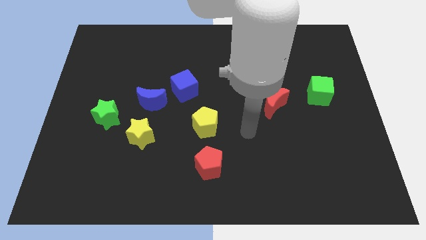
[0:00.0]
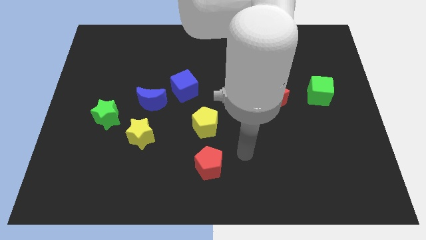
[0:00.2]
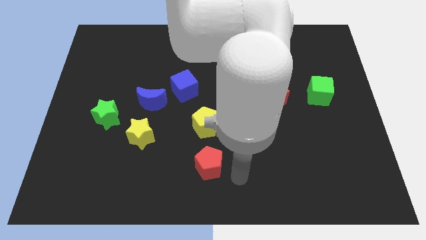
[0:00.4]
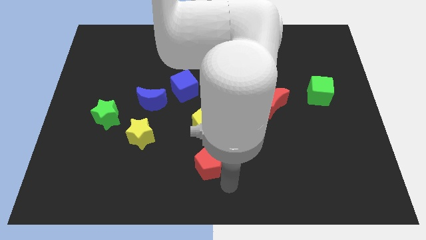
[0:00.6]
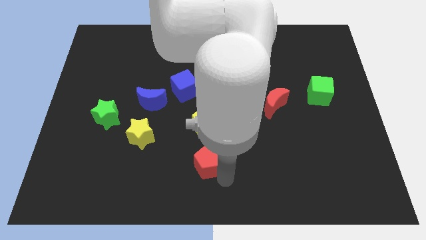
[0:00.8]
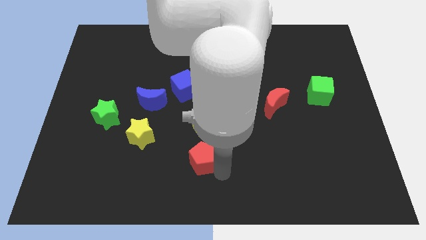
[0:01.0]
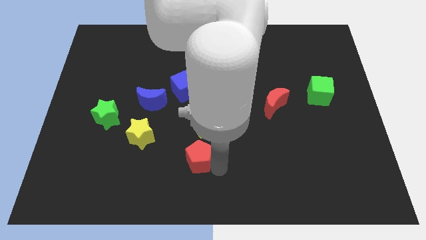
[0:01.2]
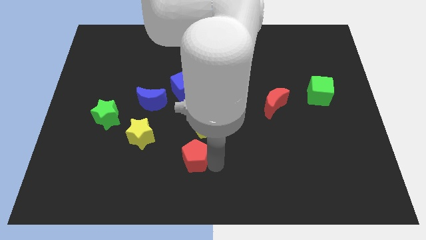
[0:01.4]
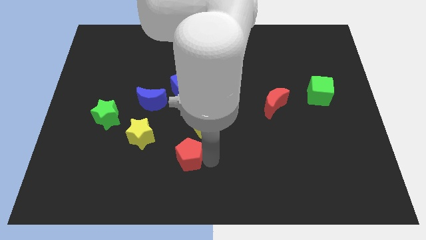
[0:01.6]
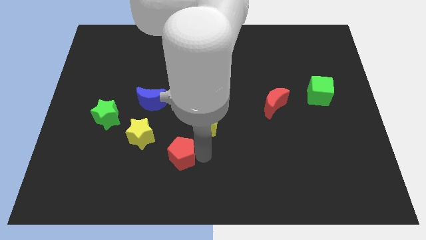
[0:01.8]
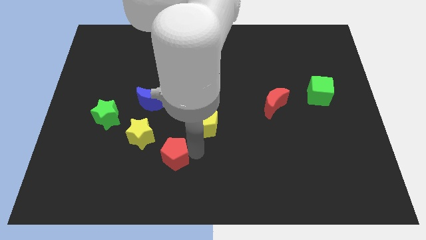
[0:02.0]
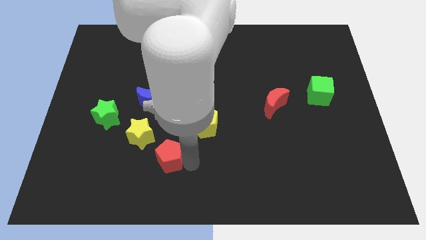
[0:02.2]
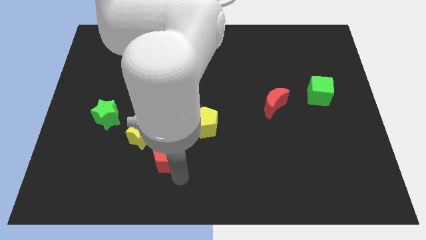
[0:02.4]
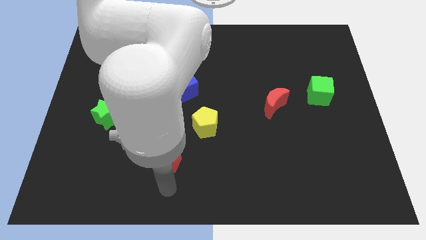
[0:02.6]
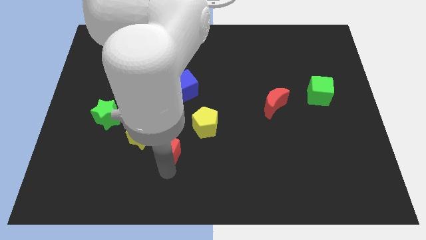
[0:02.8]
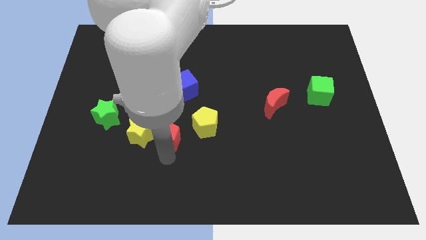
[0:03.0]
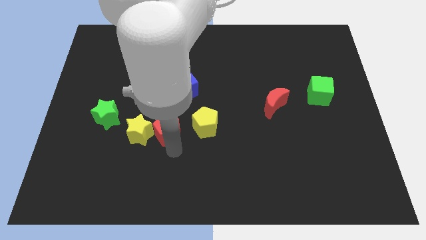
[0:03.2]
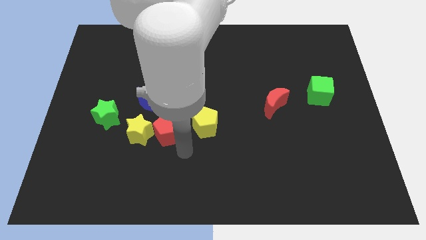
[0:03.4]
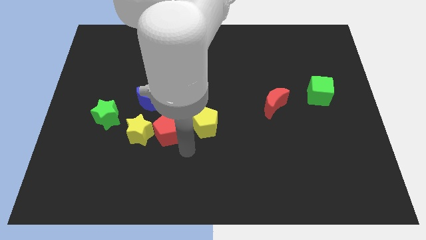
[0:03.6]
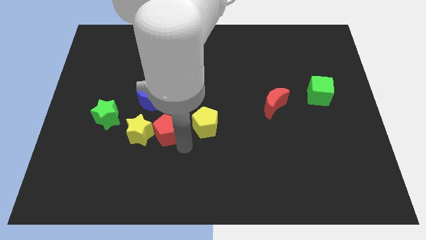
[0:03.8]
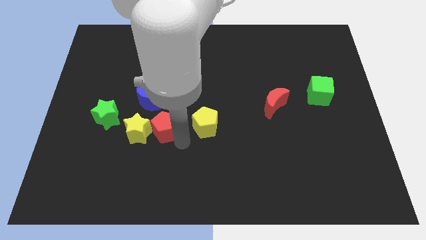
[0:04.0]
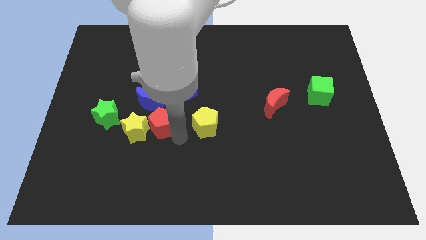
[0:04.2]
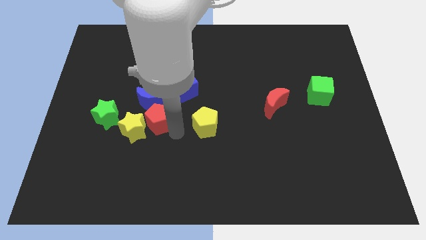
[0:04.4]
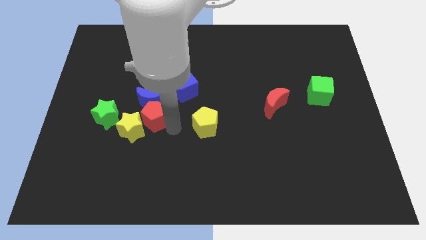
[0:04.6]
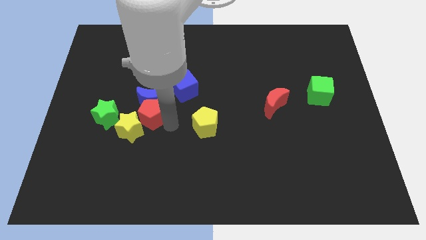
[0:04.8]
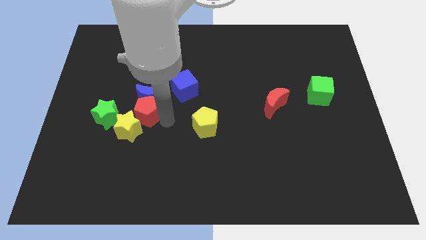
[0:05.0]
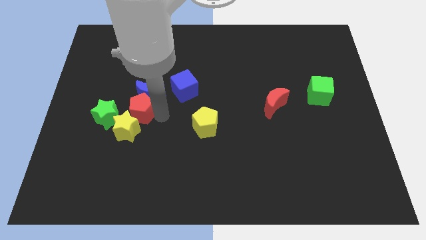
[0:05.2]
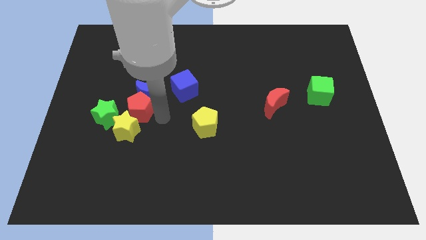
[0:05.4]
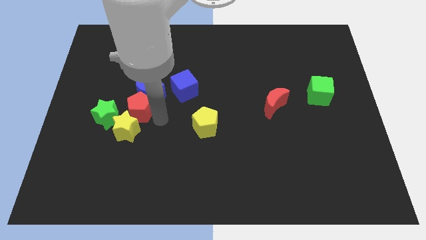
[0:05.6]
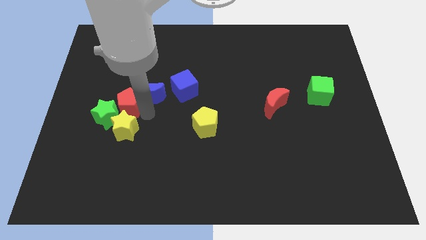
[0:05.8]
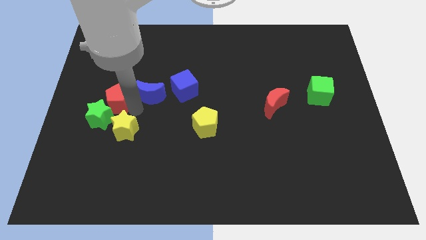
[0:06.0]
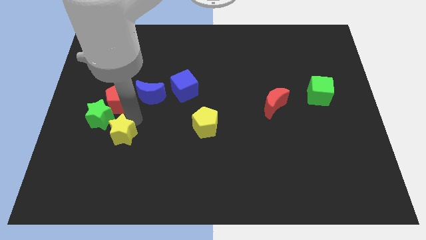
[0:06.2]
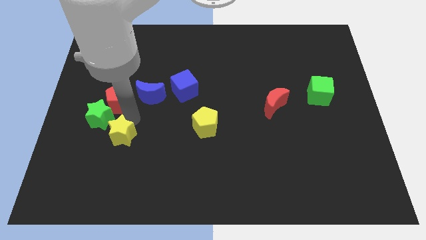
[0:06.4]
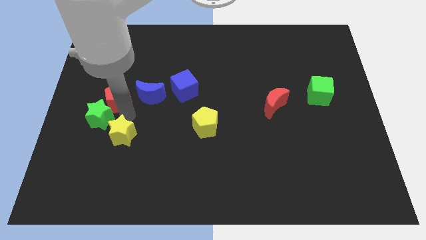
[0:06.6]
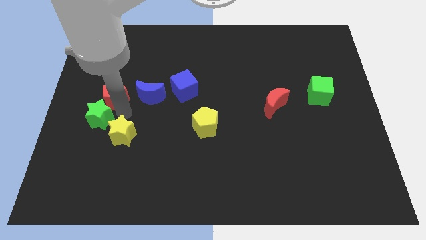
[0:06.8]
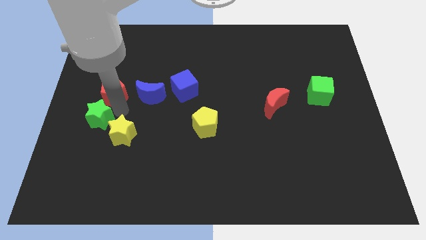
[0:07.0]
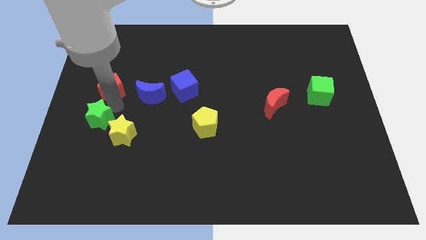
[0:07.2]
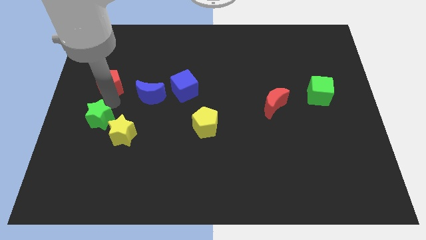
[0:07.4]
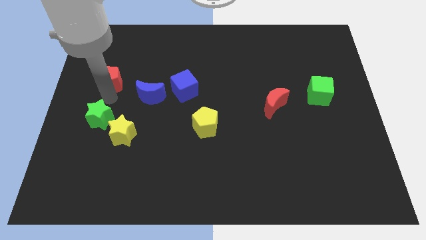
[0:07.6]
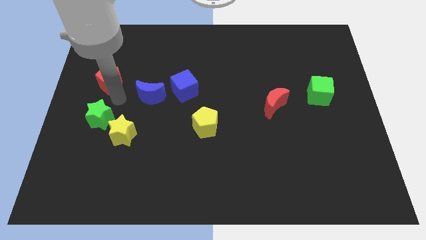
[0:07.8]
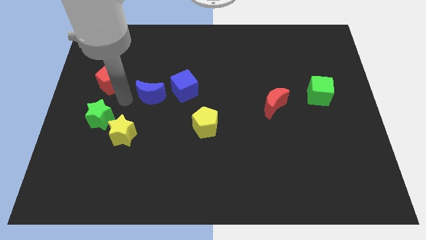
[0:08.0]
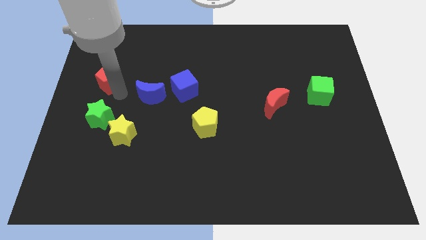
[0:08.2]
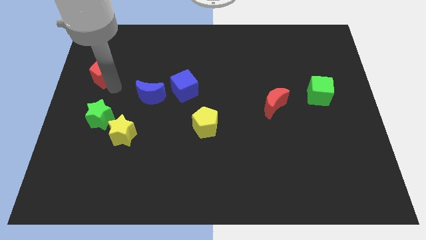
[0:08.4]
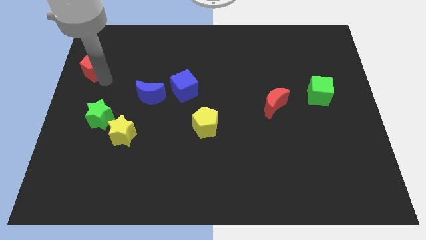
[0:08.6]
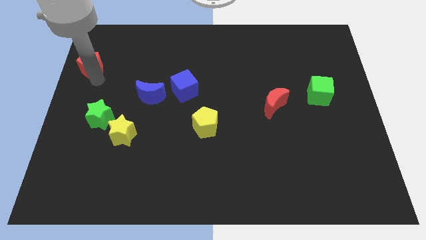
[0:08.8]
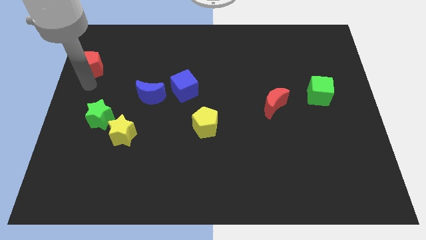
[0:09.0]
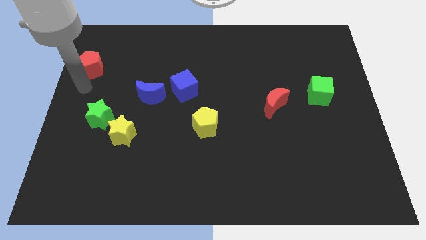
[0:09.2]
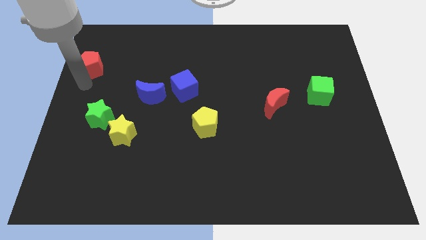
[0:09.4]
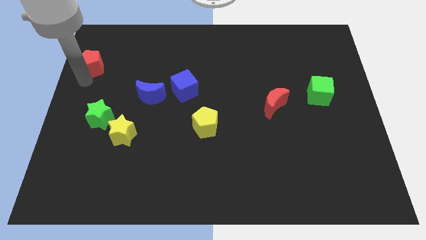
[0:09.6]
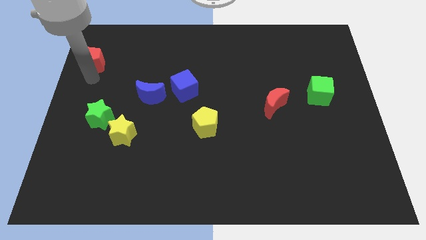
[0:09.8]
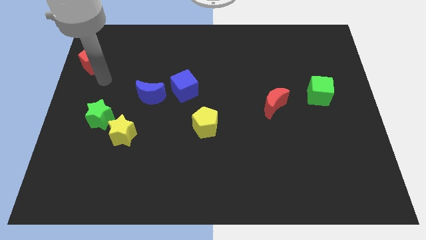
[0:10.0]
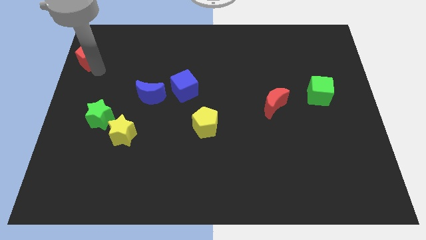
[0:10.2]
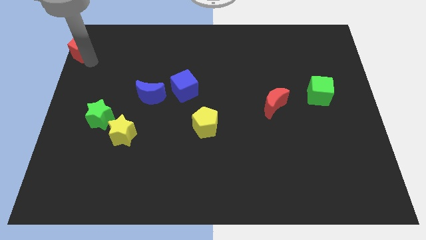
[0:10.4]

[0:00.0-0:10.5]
slide the red pentagon to the upper left corner

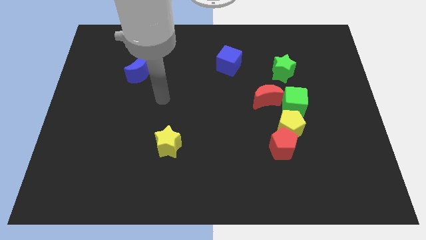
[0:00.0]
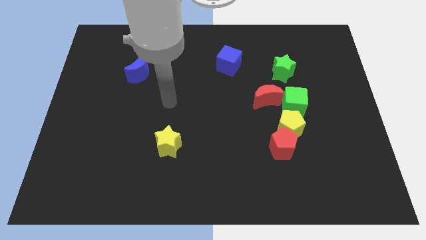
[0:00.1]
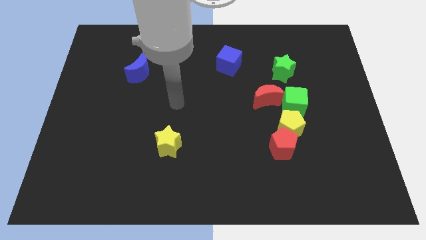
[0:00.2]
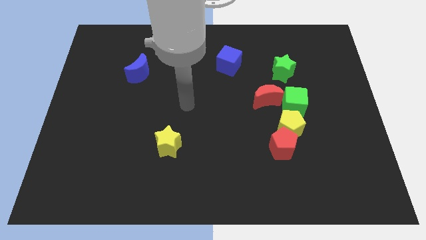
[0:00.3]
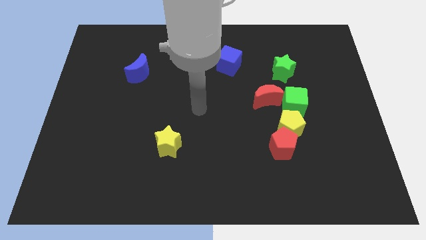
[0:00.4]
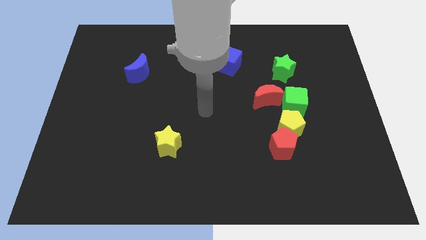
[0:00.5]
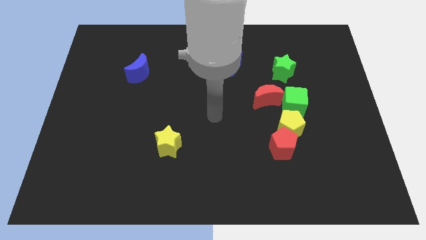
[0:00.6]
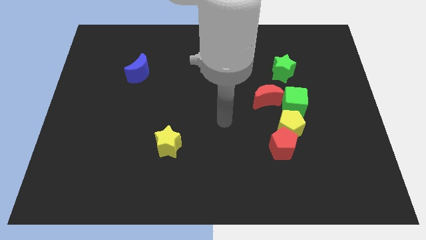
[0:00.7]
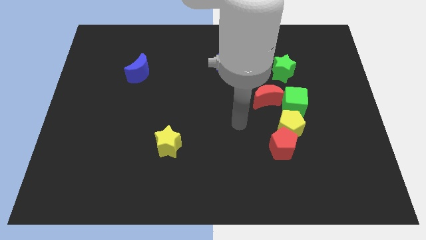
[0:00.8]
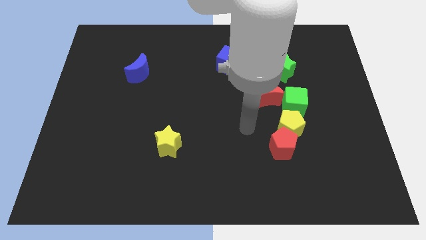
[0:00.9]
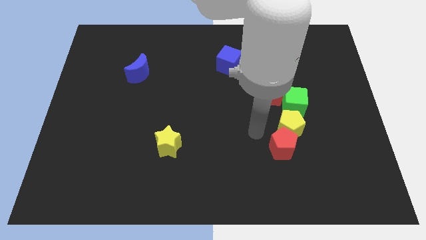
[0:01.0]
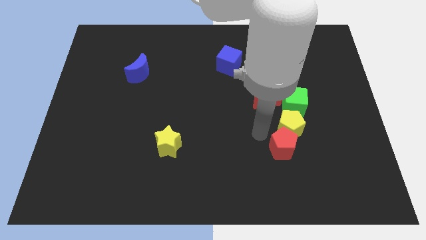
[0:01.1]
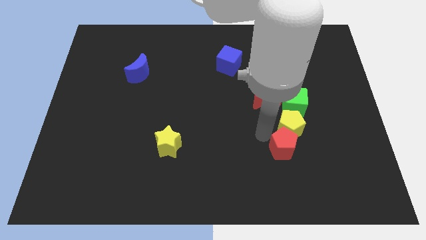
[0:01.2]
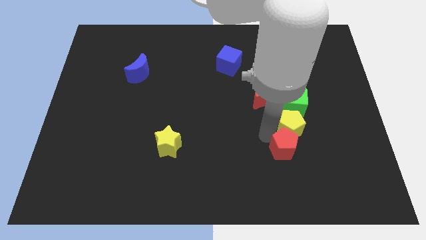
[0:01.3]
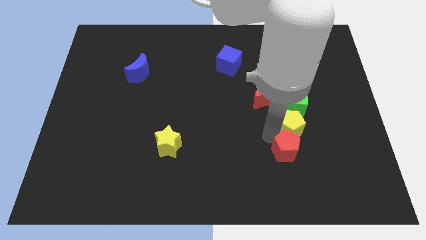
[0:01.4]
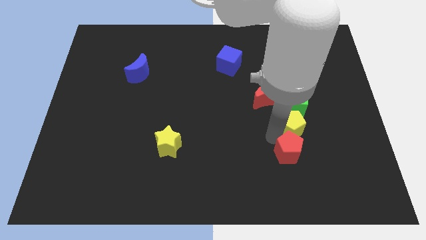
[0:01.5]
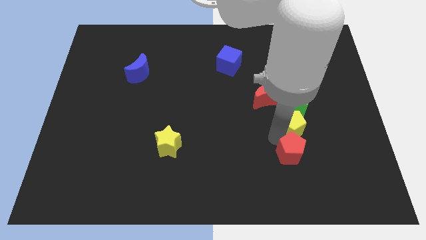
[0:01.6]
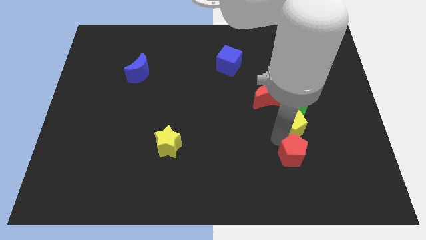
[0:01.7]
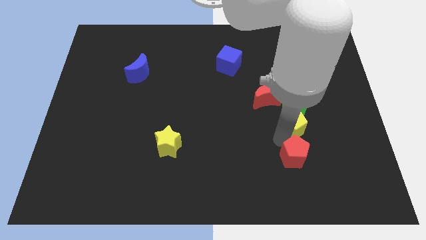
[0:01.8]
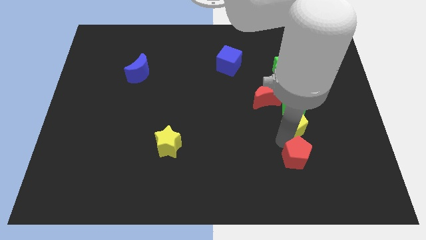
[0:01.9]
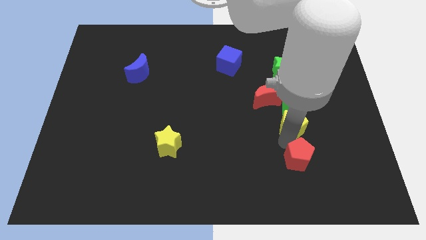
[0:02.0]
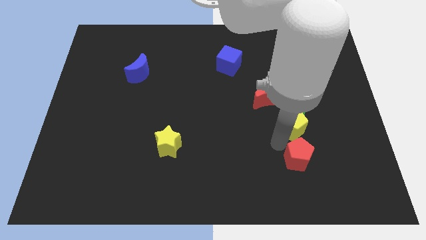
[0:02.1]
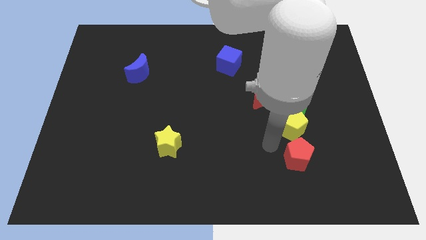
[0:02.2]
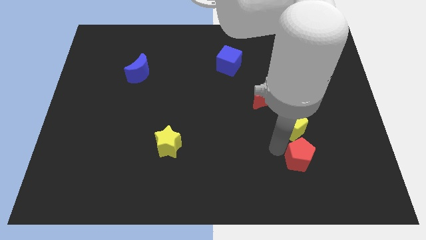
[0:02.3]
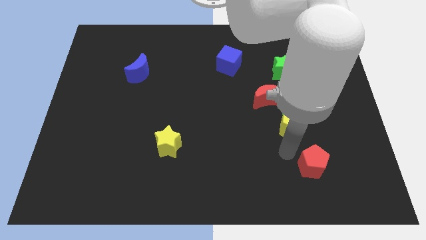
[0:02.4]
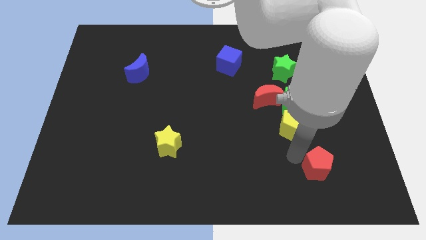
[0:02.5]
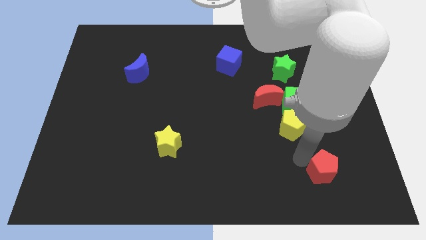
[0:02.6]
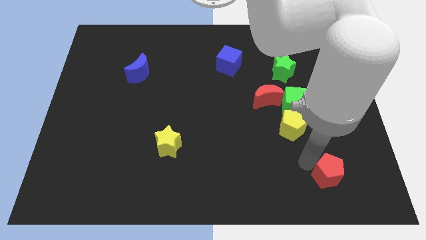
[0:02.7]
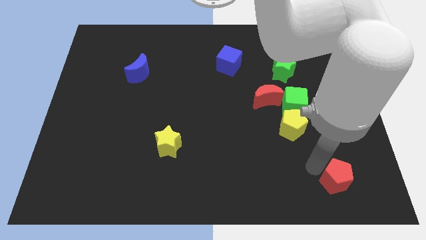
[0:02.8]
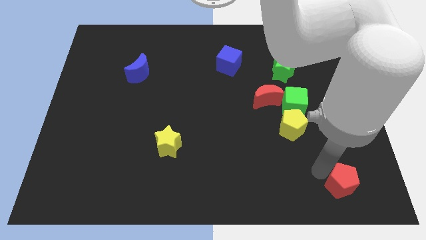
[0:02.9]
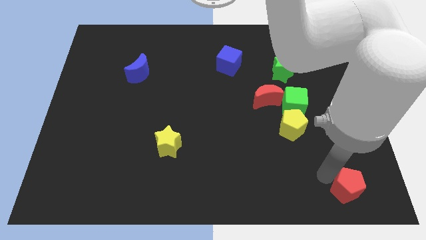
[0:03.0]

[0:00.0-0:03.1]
move the red pentagon to the bottom right
